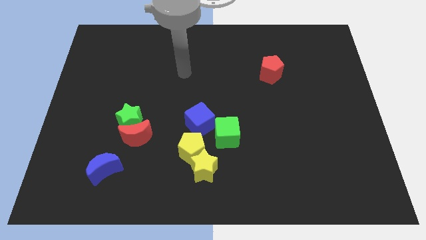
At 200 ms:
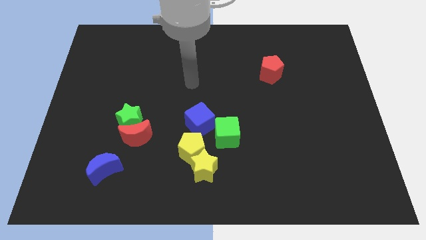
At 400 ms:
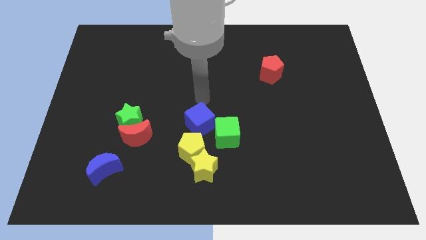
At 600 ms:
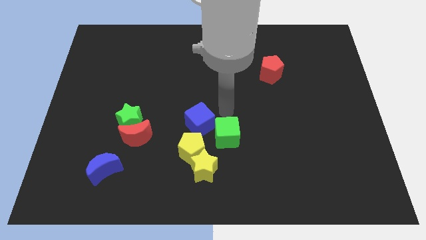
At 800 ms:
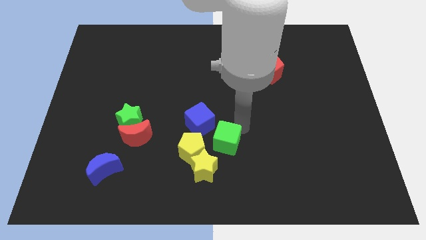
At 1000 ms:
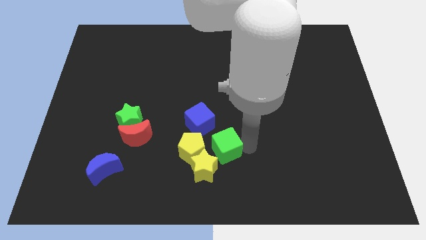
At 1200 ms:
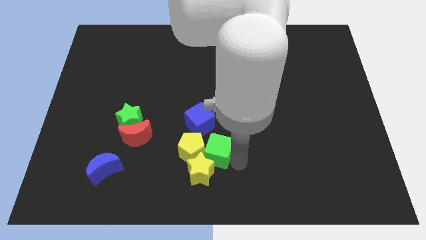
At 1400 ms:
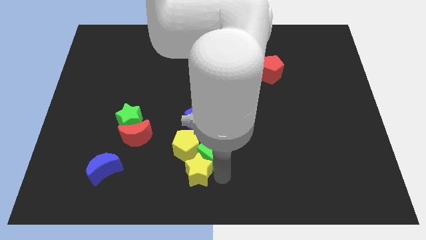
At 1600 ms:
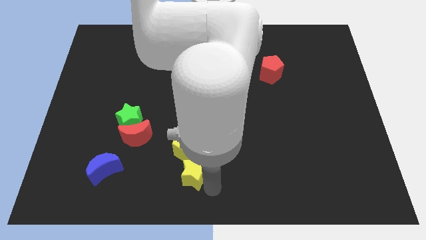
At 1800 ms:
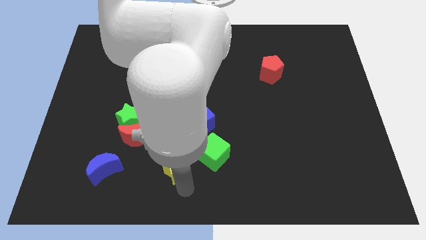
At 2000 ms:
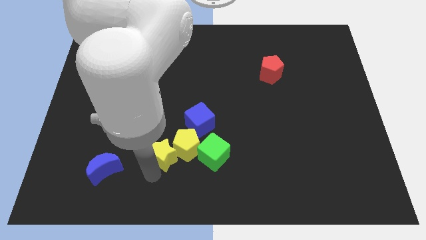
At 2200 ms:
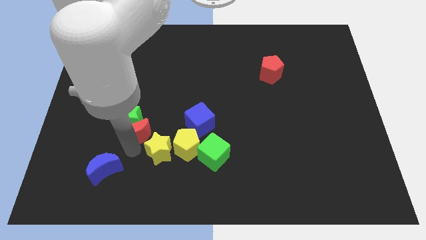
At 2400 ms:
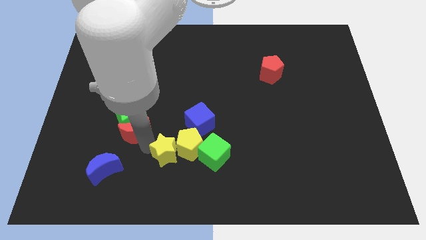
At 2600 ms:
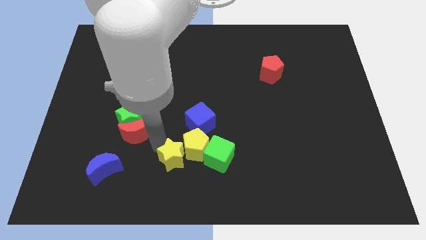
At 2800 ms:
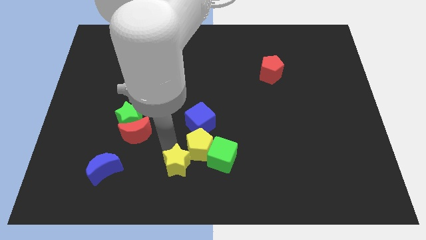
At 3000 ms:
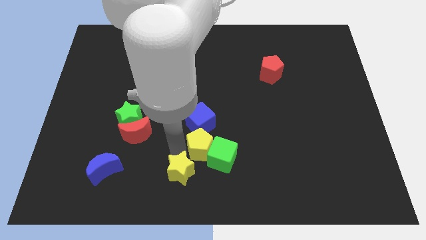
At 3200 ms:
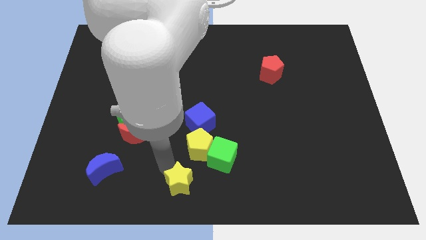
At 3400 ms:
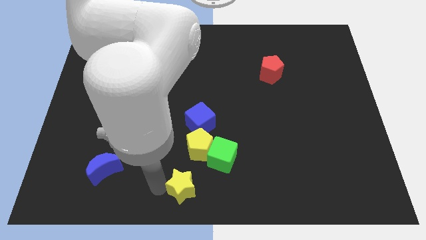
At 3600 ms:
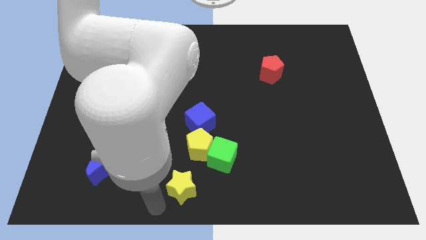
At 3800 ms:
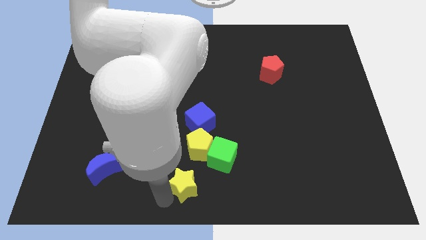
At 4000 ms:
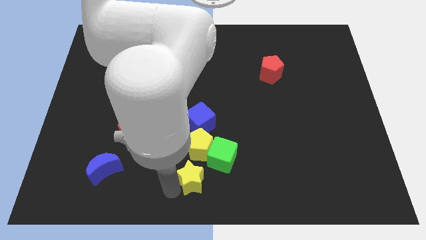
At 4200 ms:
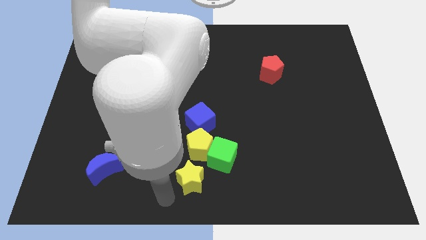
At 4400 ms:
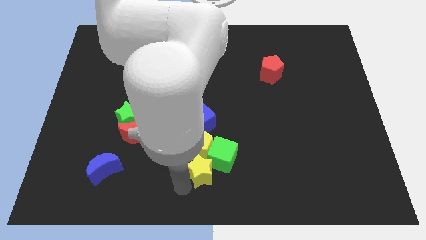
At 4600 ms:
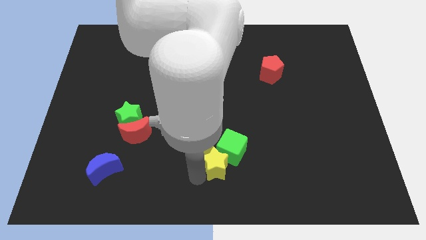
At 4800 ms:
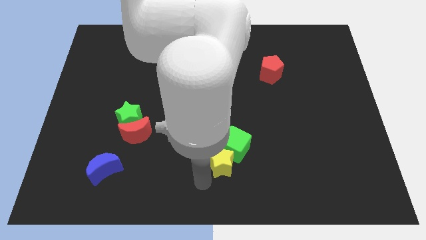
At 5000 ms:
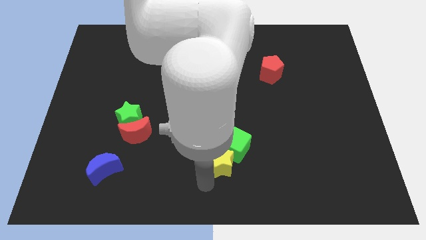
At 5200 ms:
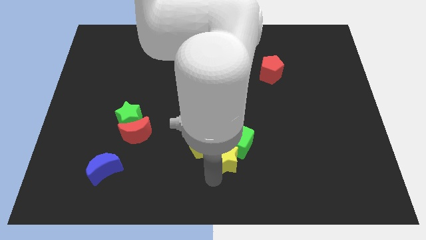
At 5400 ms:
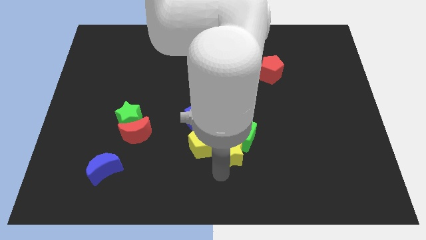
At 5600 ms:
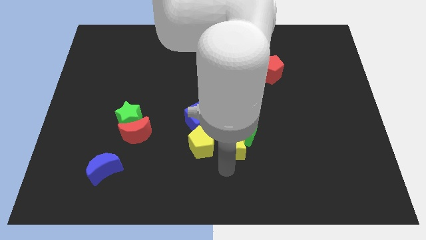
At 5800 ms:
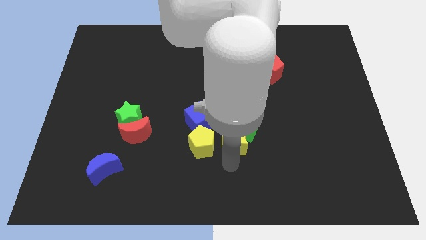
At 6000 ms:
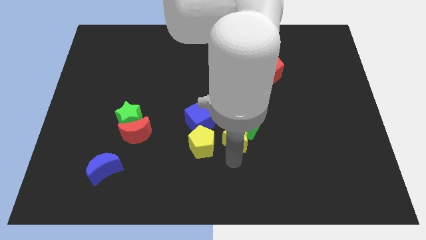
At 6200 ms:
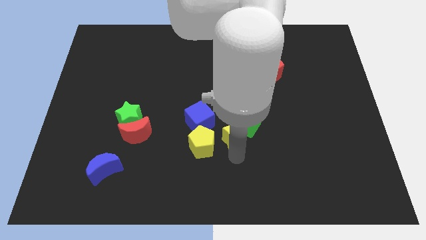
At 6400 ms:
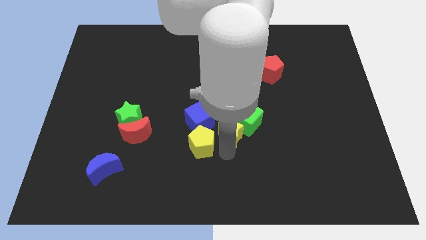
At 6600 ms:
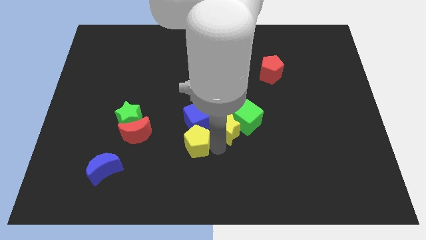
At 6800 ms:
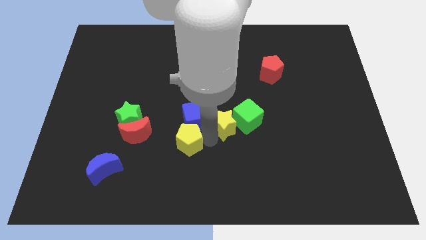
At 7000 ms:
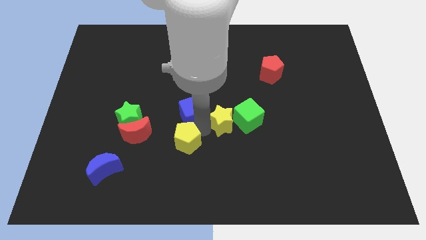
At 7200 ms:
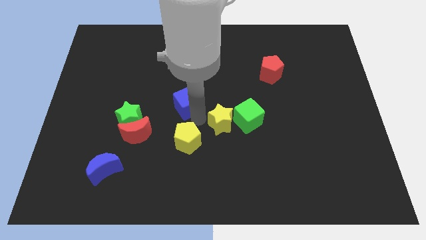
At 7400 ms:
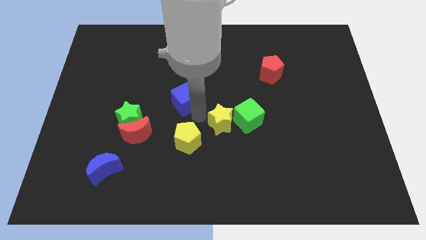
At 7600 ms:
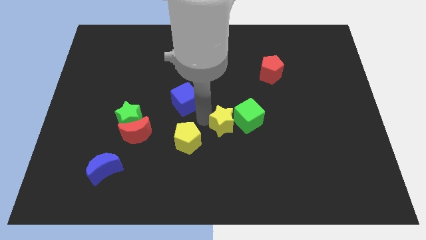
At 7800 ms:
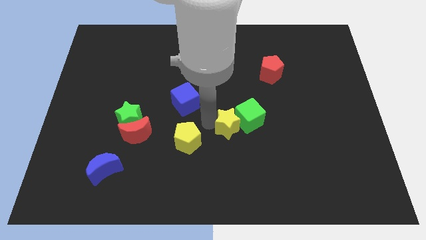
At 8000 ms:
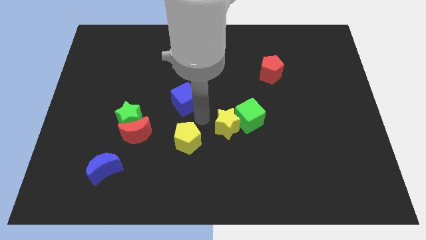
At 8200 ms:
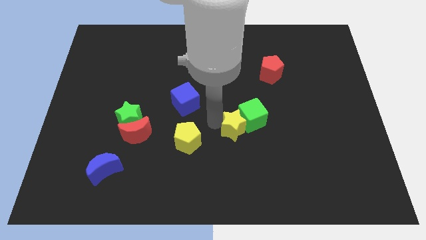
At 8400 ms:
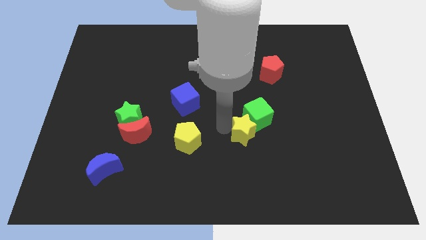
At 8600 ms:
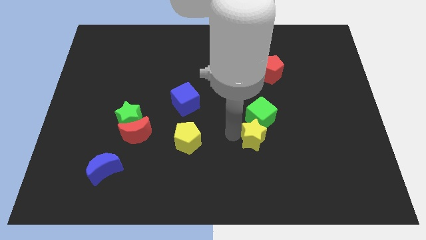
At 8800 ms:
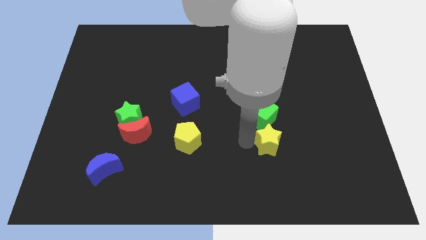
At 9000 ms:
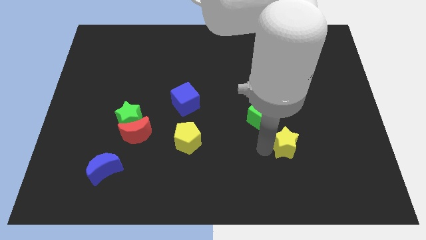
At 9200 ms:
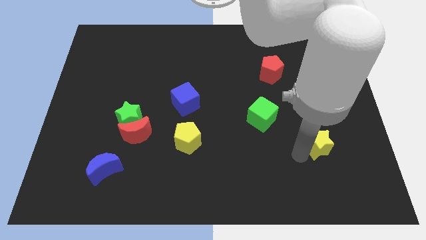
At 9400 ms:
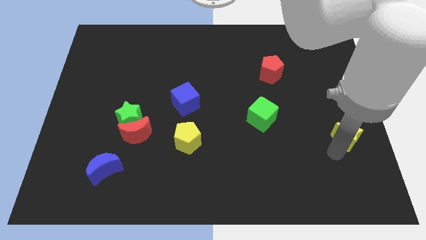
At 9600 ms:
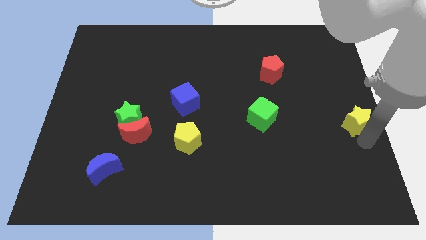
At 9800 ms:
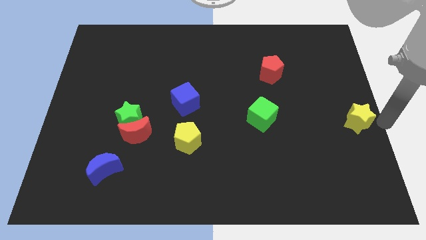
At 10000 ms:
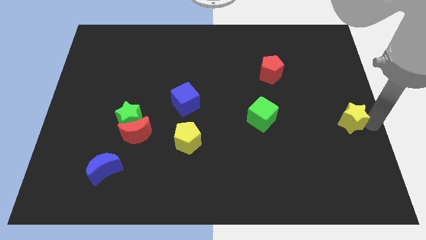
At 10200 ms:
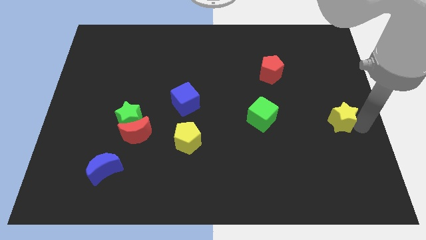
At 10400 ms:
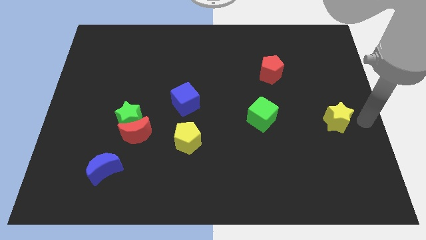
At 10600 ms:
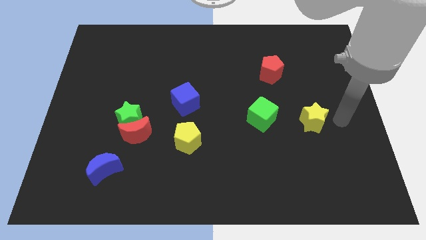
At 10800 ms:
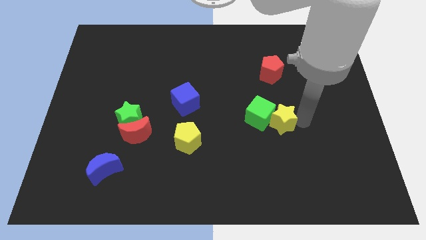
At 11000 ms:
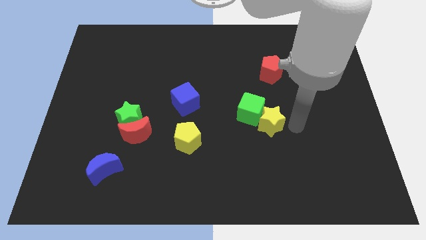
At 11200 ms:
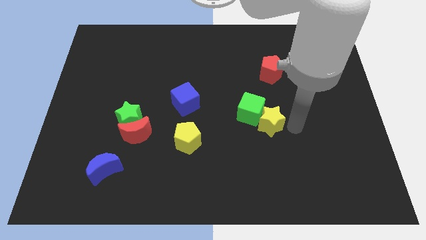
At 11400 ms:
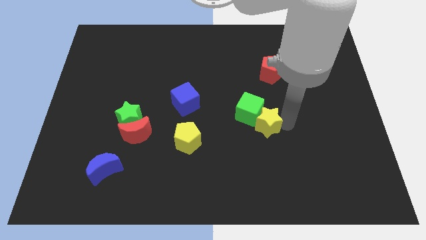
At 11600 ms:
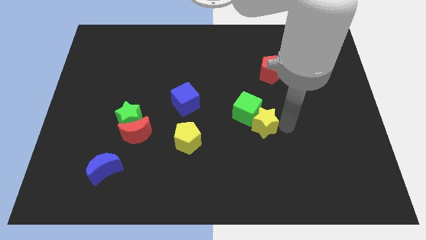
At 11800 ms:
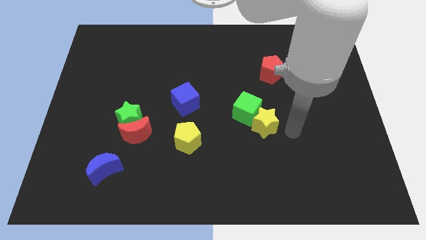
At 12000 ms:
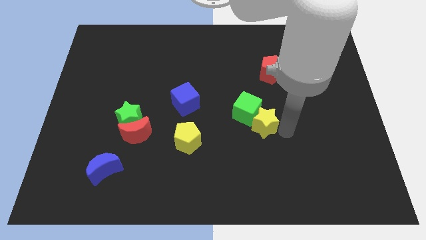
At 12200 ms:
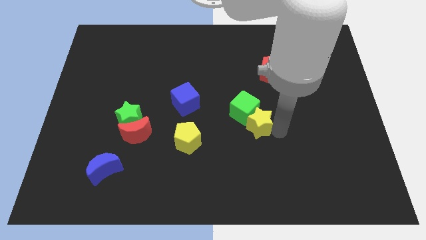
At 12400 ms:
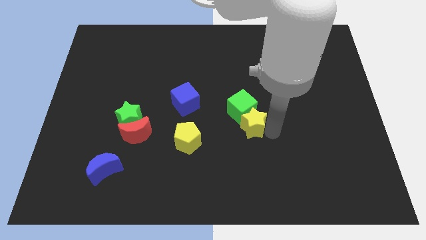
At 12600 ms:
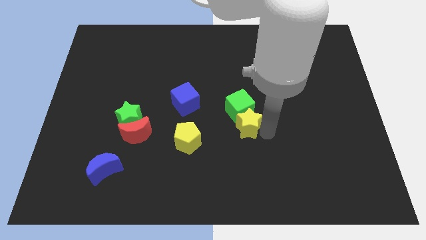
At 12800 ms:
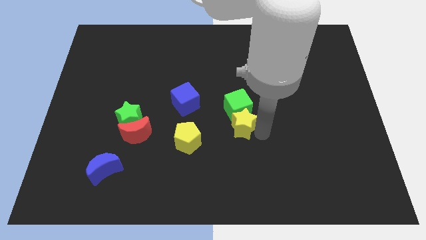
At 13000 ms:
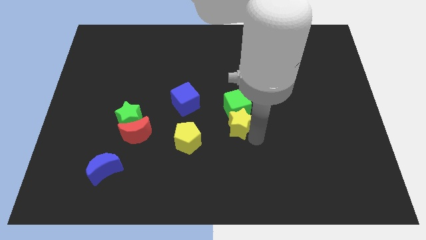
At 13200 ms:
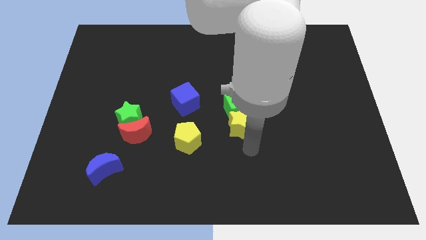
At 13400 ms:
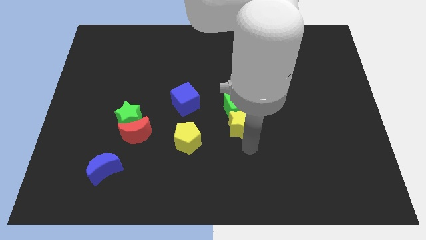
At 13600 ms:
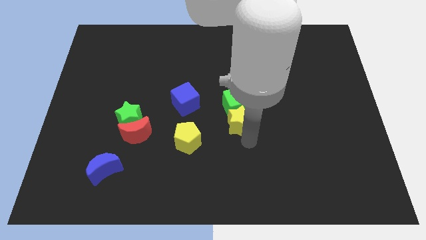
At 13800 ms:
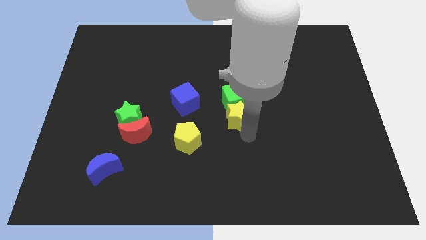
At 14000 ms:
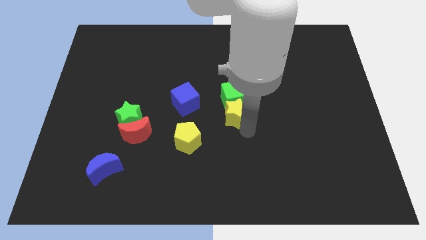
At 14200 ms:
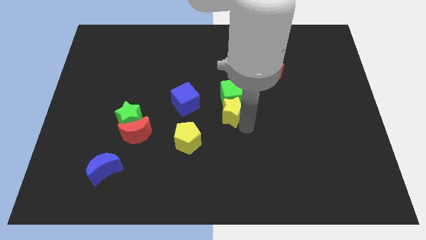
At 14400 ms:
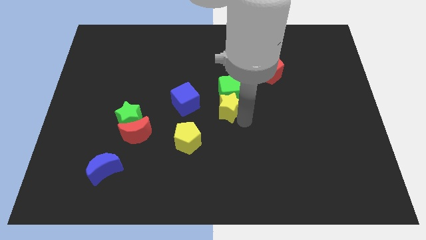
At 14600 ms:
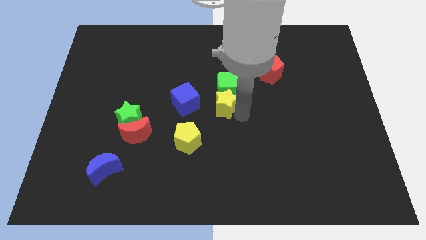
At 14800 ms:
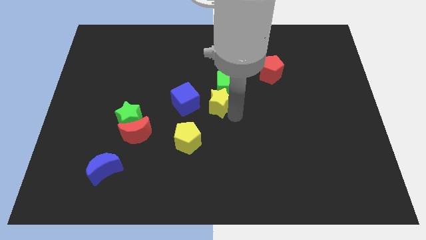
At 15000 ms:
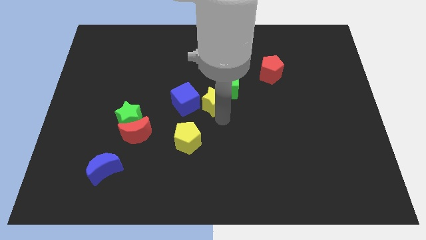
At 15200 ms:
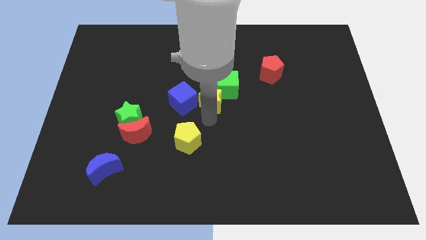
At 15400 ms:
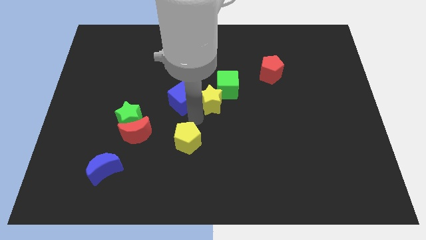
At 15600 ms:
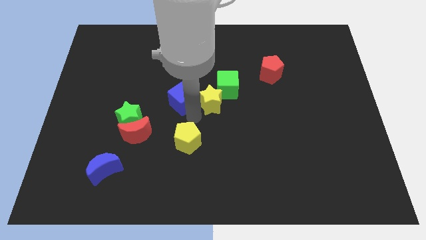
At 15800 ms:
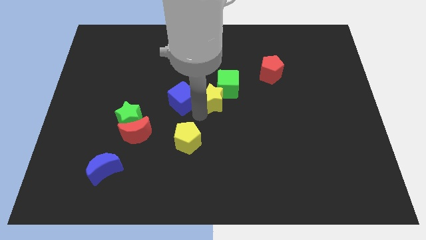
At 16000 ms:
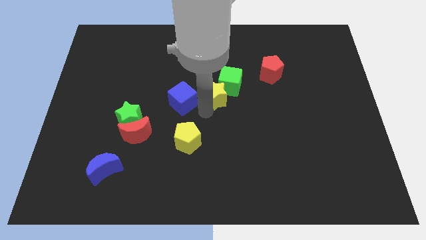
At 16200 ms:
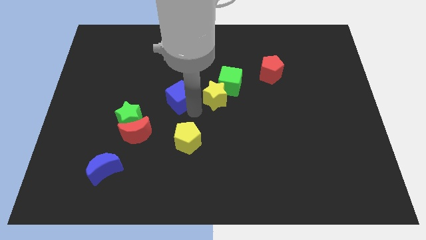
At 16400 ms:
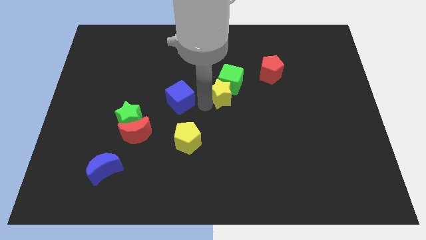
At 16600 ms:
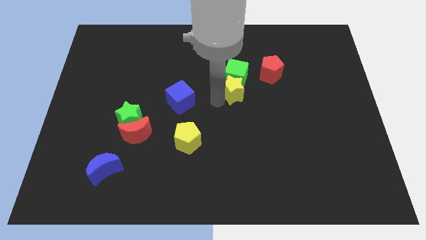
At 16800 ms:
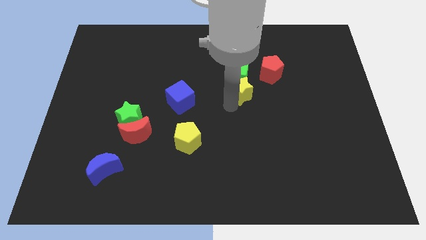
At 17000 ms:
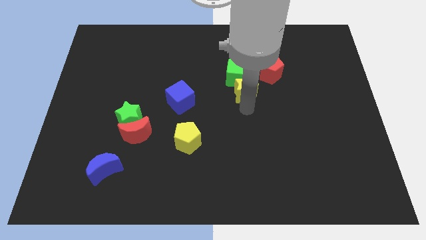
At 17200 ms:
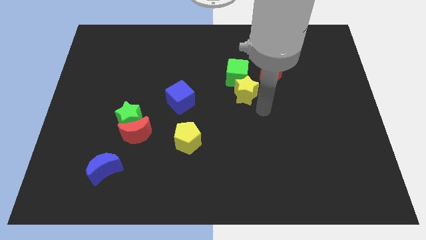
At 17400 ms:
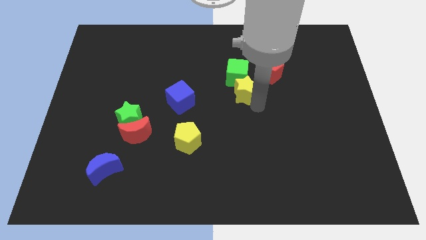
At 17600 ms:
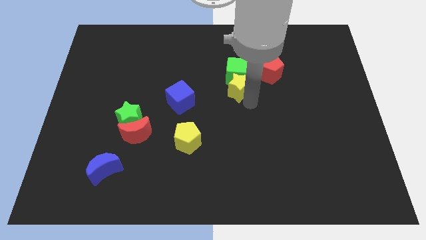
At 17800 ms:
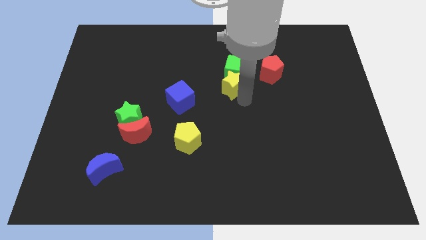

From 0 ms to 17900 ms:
push the yellow star up
